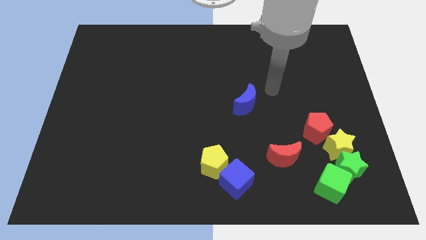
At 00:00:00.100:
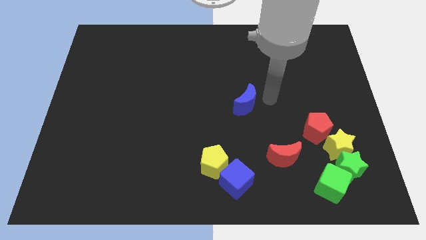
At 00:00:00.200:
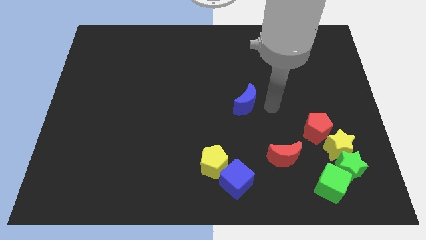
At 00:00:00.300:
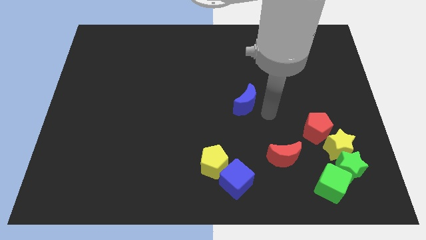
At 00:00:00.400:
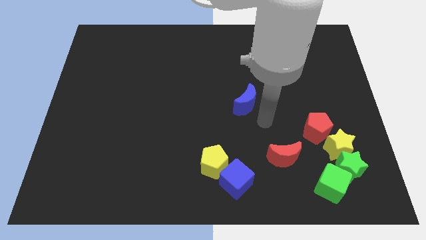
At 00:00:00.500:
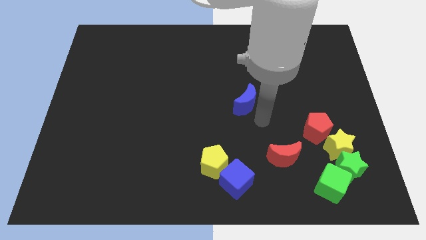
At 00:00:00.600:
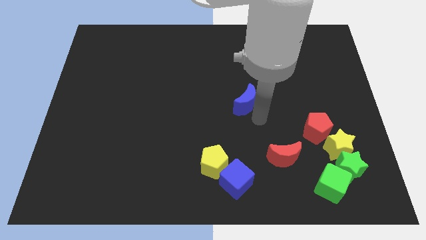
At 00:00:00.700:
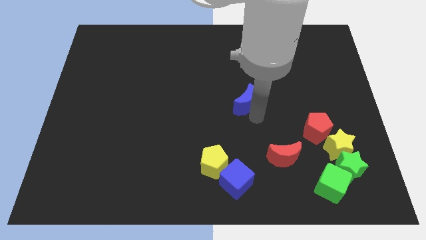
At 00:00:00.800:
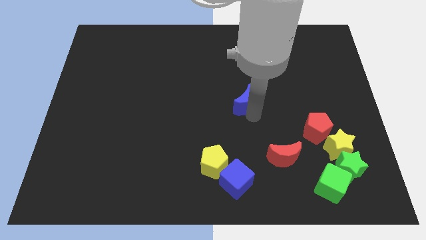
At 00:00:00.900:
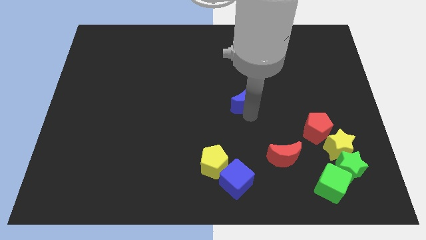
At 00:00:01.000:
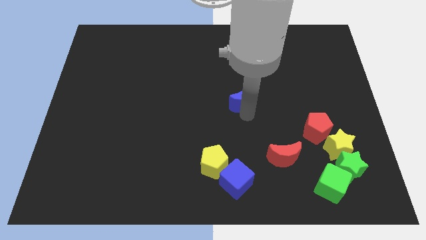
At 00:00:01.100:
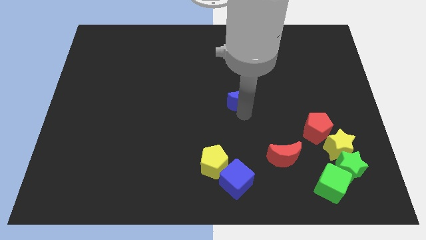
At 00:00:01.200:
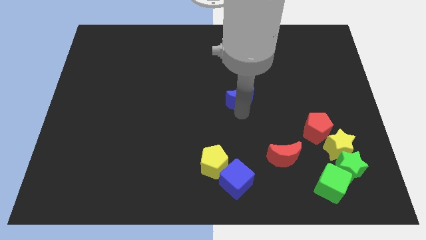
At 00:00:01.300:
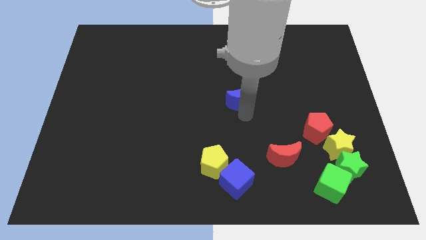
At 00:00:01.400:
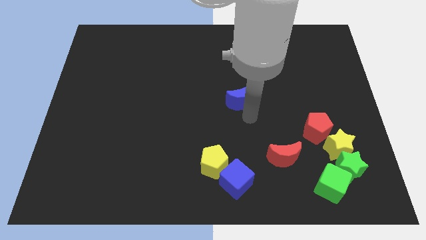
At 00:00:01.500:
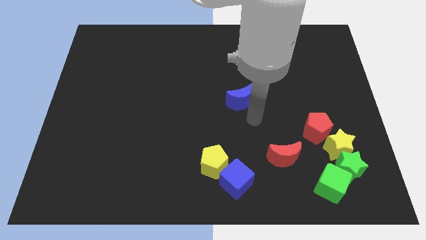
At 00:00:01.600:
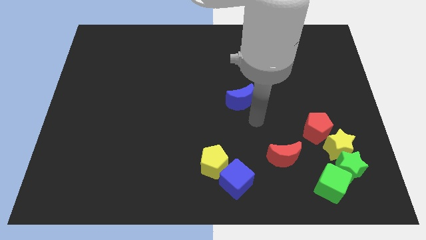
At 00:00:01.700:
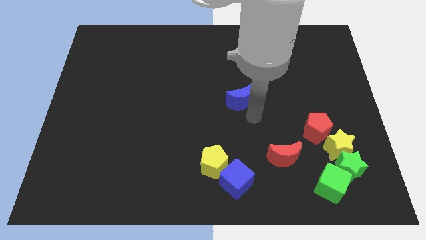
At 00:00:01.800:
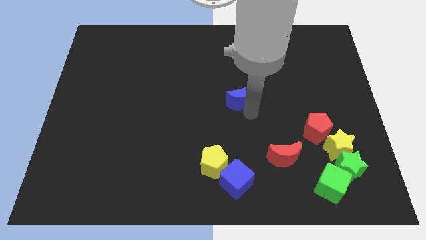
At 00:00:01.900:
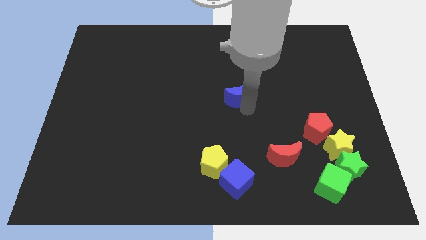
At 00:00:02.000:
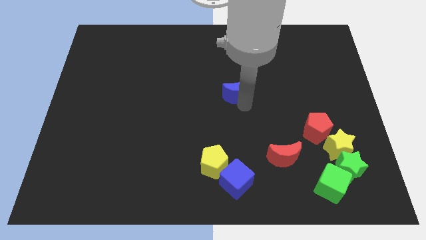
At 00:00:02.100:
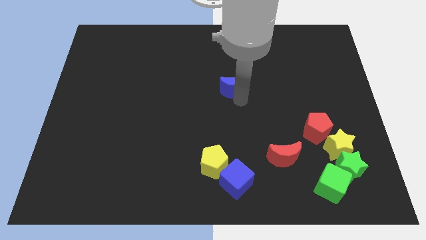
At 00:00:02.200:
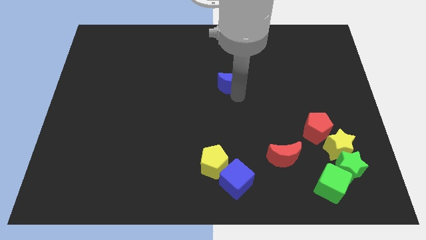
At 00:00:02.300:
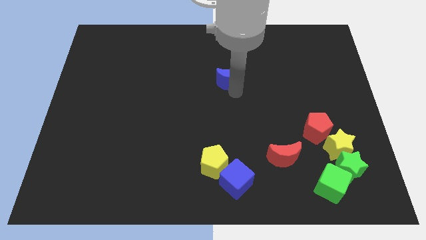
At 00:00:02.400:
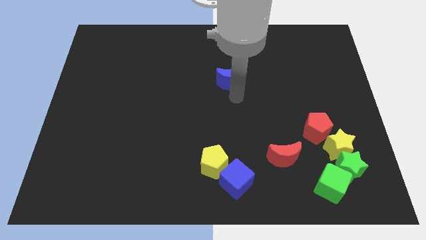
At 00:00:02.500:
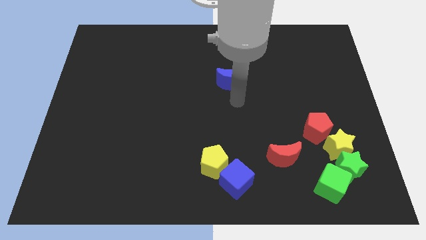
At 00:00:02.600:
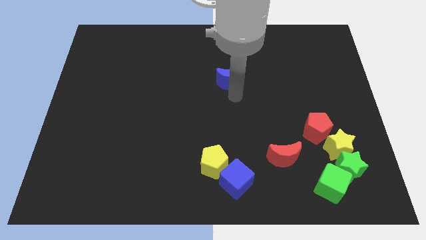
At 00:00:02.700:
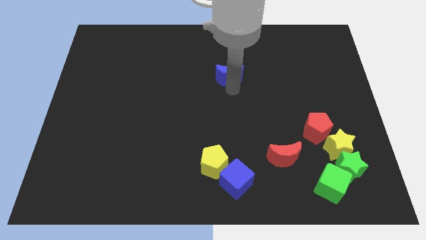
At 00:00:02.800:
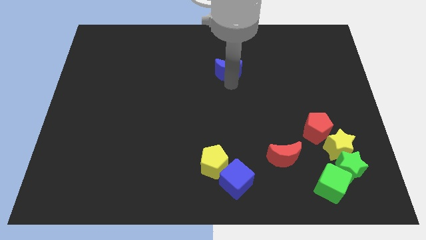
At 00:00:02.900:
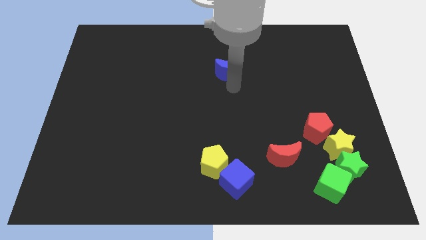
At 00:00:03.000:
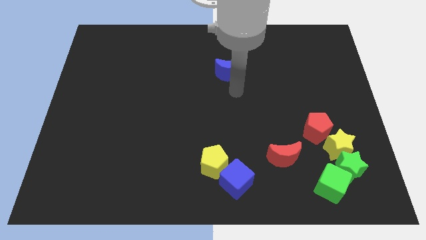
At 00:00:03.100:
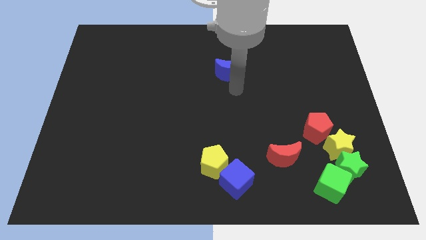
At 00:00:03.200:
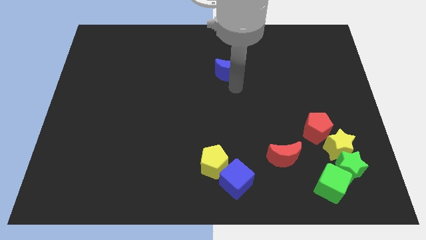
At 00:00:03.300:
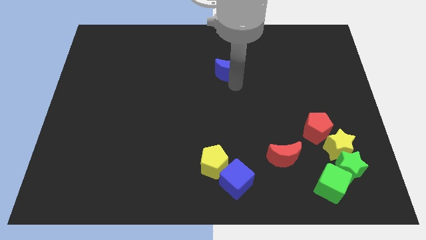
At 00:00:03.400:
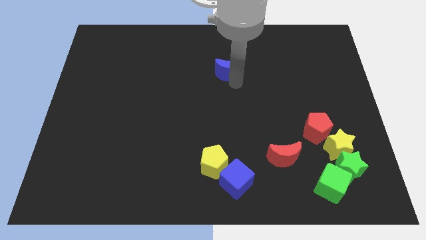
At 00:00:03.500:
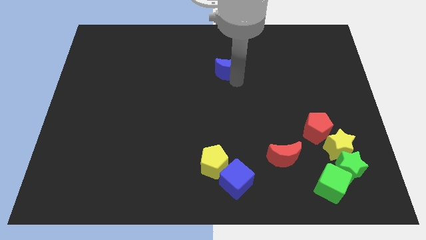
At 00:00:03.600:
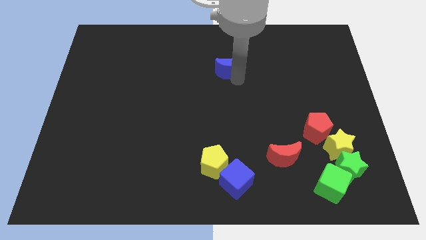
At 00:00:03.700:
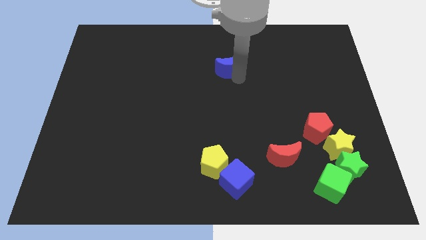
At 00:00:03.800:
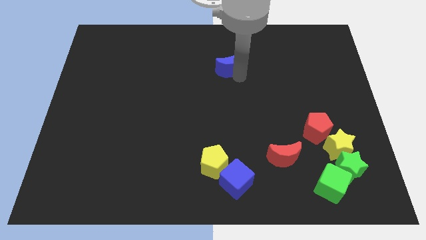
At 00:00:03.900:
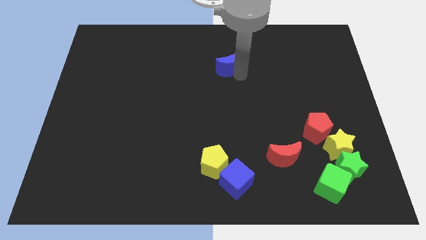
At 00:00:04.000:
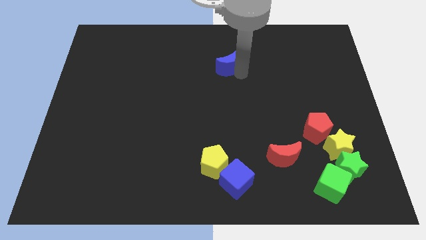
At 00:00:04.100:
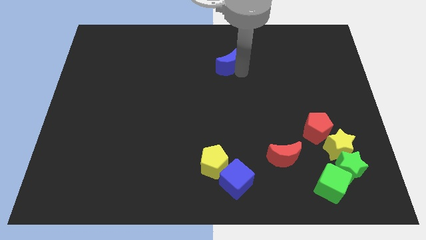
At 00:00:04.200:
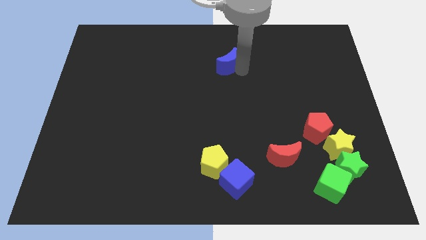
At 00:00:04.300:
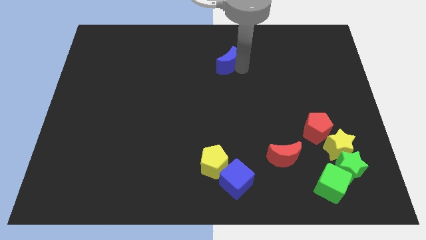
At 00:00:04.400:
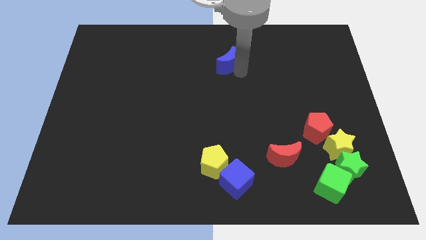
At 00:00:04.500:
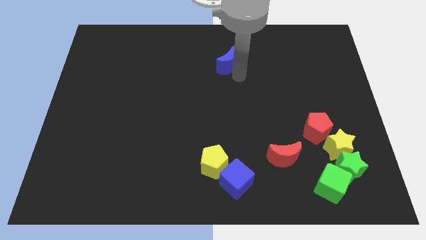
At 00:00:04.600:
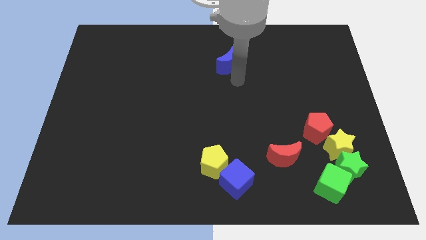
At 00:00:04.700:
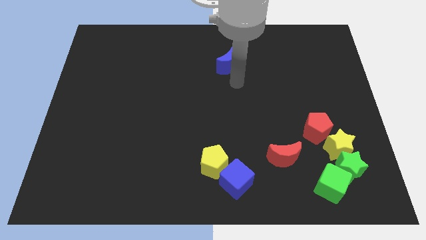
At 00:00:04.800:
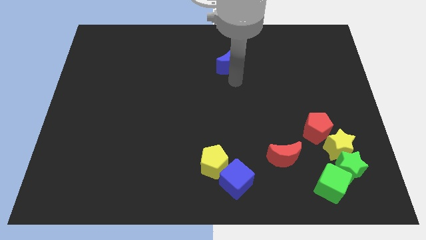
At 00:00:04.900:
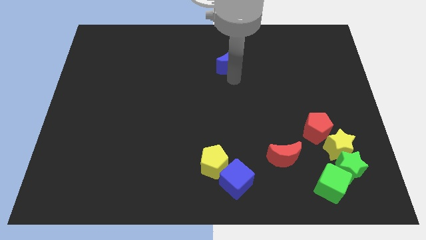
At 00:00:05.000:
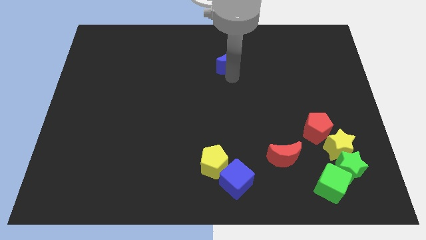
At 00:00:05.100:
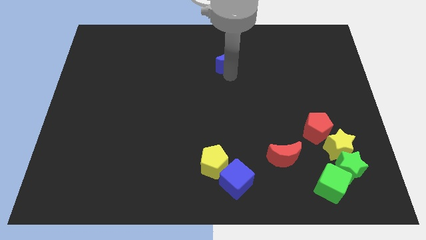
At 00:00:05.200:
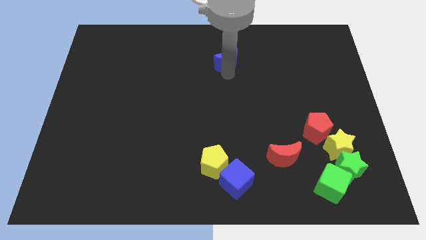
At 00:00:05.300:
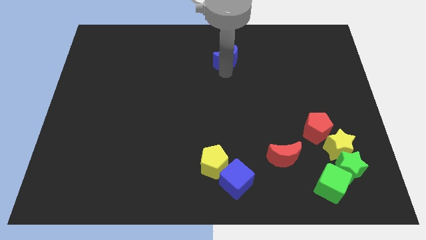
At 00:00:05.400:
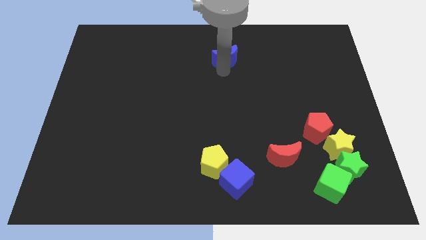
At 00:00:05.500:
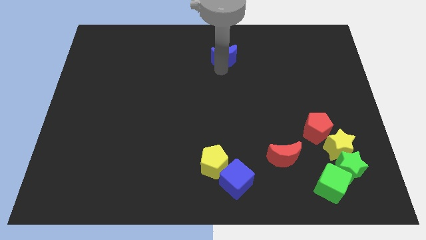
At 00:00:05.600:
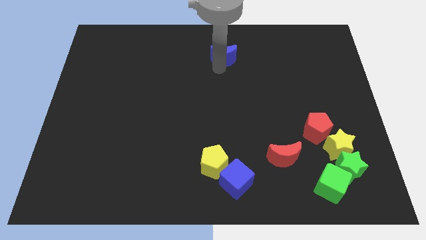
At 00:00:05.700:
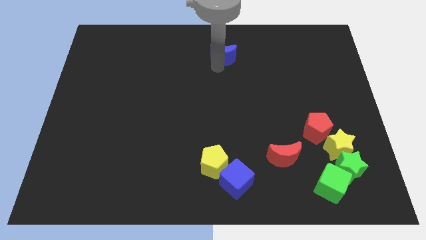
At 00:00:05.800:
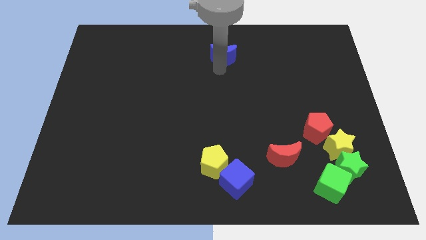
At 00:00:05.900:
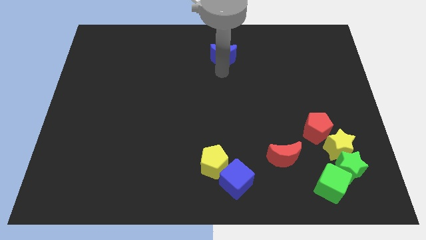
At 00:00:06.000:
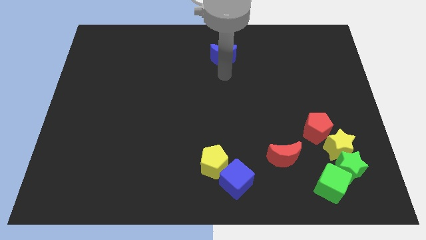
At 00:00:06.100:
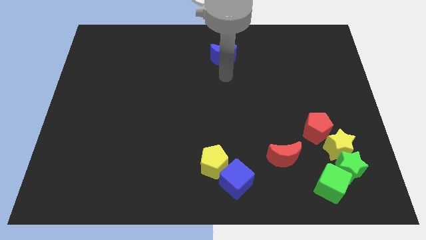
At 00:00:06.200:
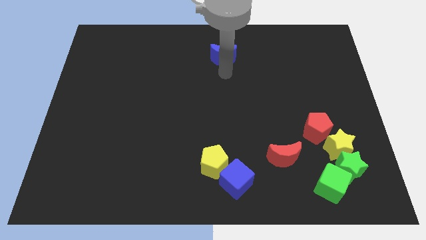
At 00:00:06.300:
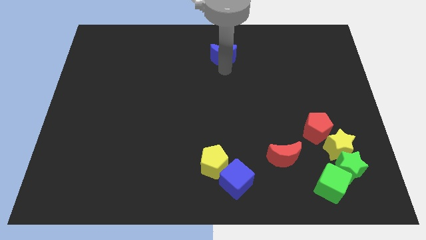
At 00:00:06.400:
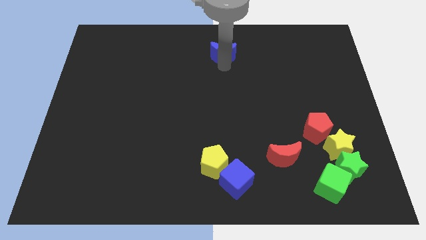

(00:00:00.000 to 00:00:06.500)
move the blue moon to the top

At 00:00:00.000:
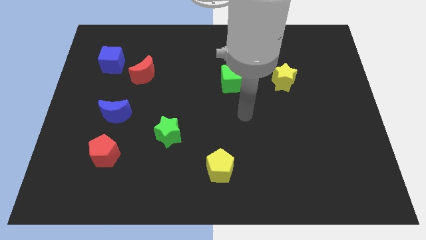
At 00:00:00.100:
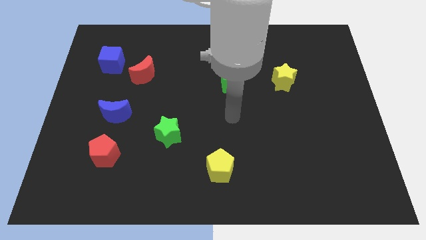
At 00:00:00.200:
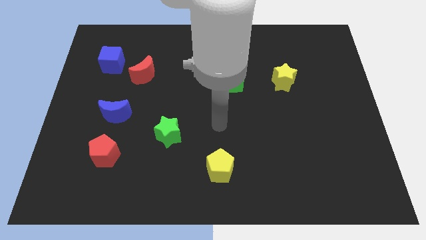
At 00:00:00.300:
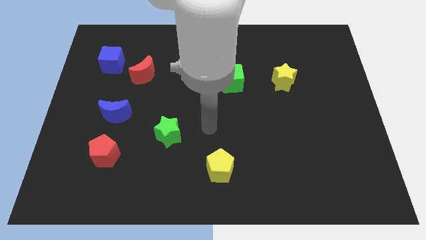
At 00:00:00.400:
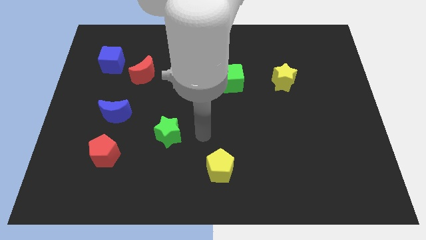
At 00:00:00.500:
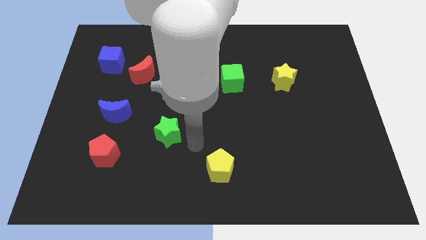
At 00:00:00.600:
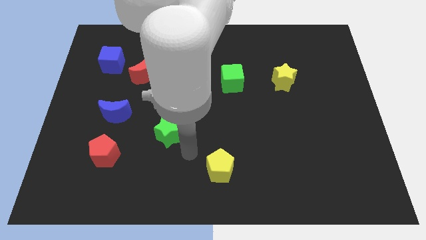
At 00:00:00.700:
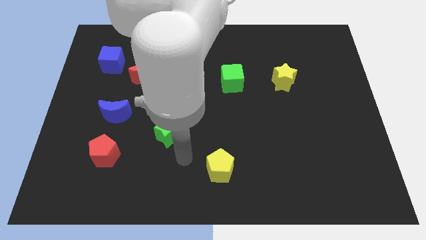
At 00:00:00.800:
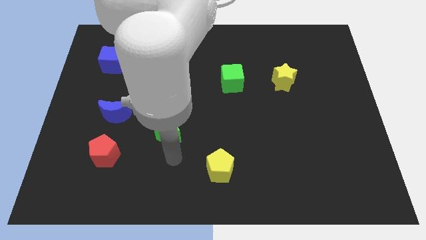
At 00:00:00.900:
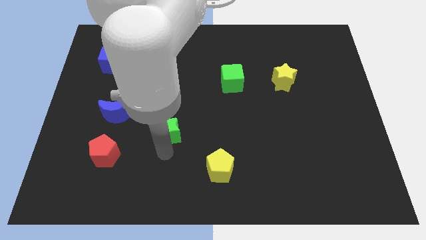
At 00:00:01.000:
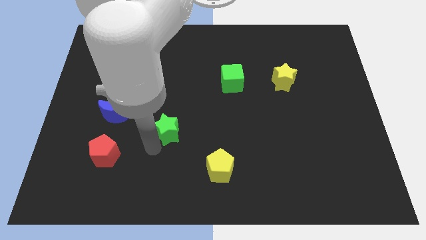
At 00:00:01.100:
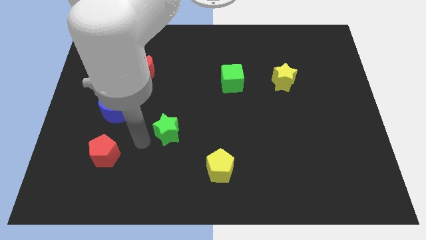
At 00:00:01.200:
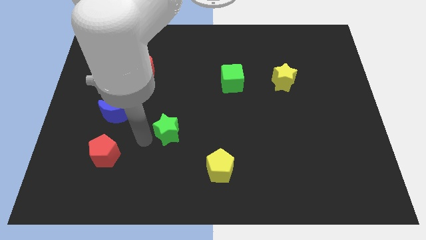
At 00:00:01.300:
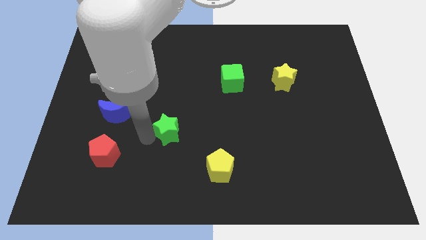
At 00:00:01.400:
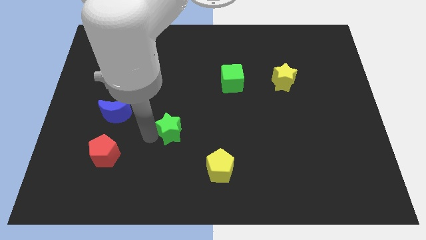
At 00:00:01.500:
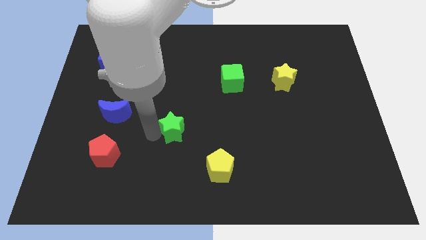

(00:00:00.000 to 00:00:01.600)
put the green star to the middle
